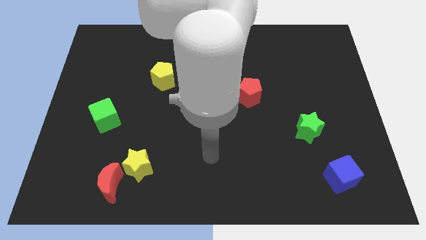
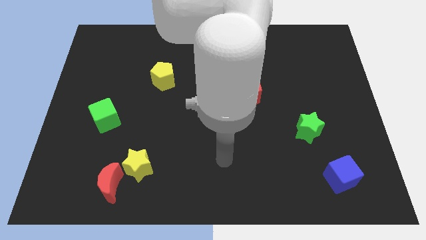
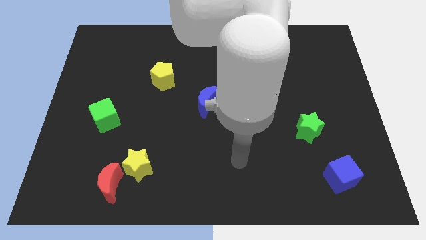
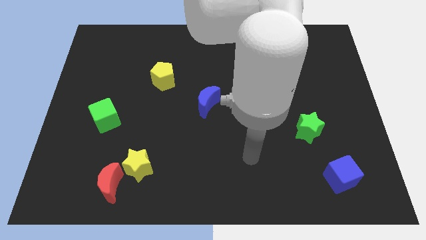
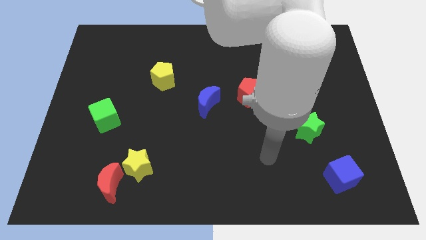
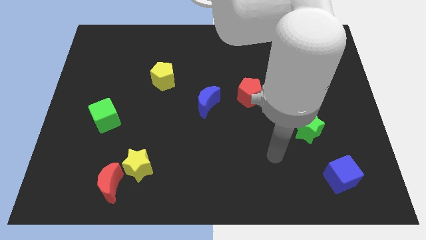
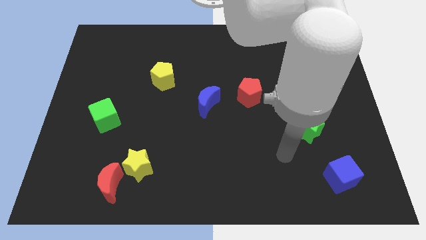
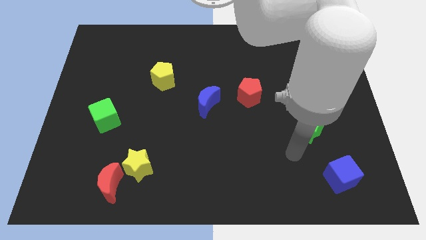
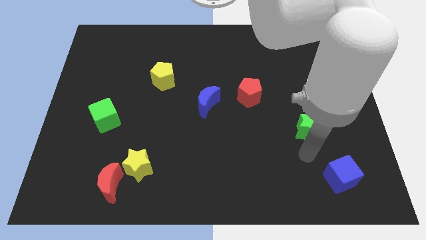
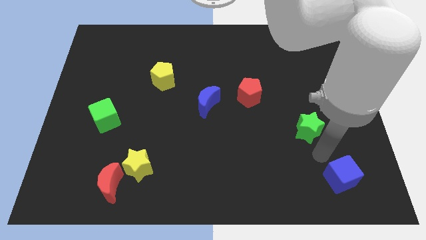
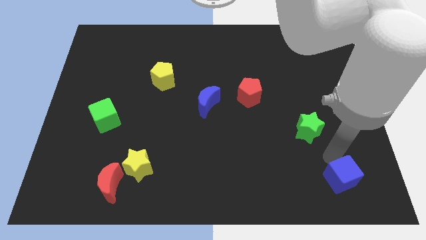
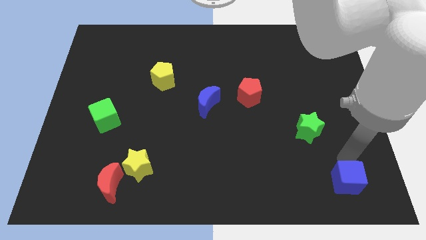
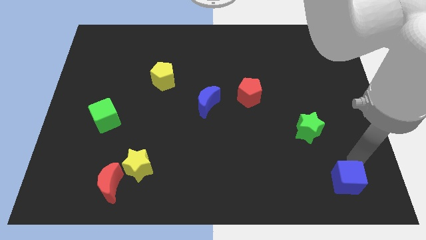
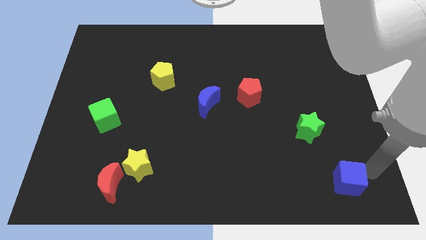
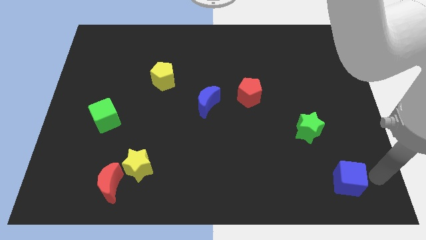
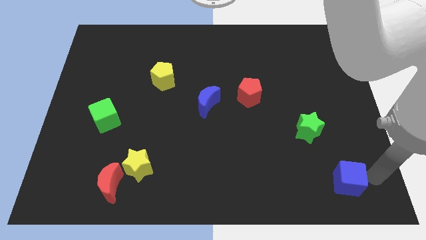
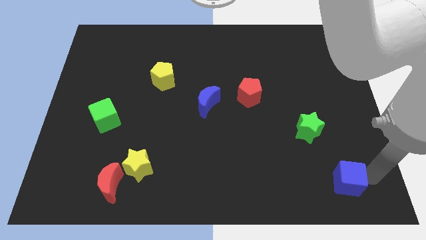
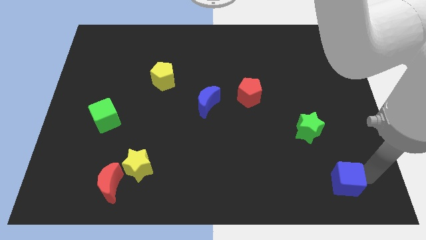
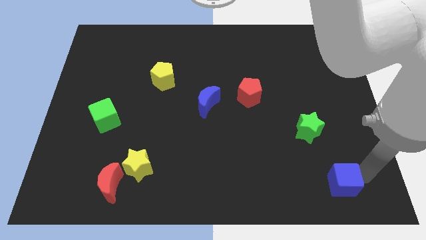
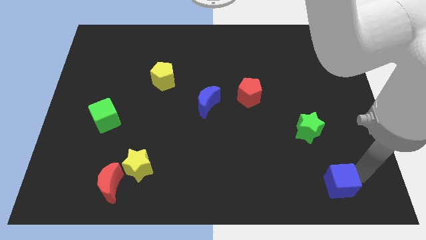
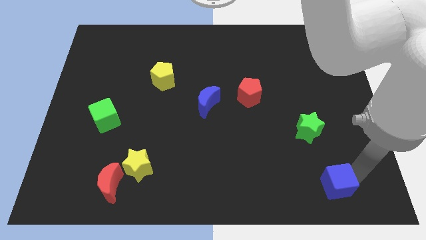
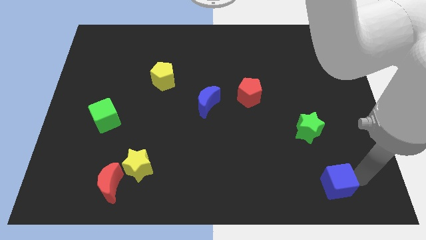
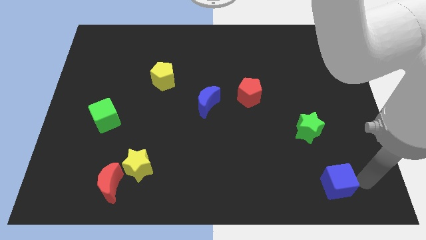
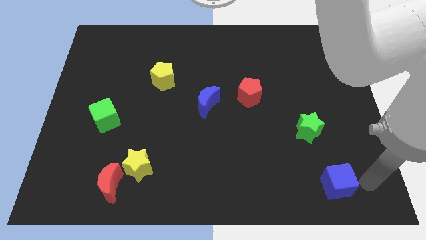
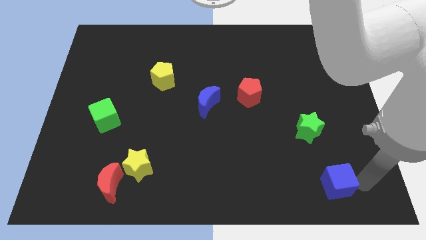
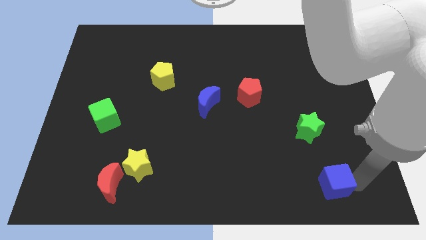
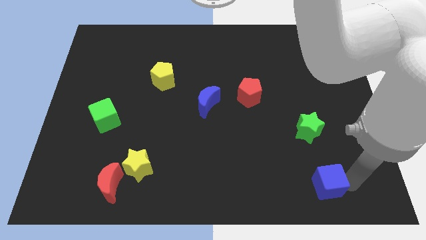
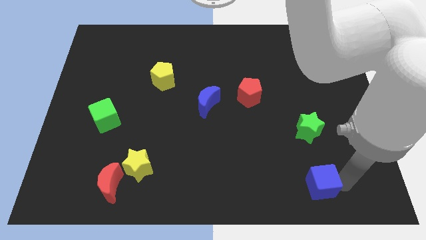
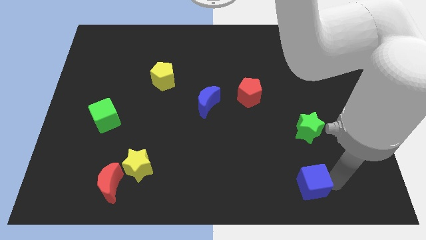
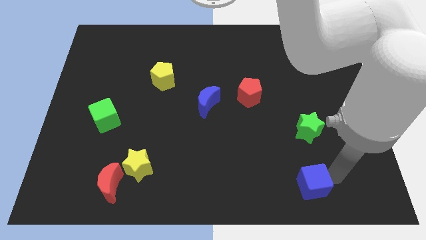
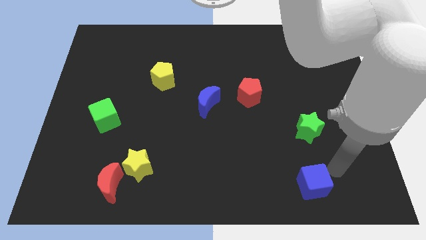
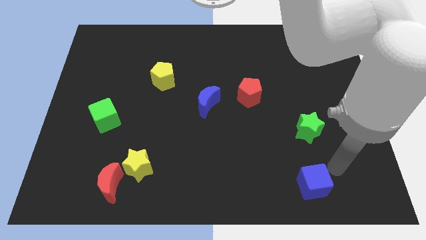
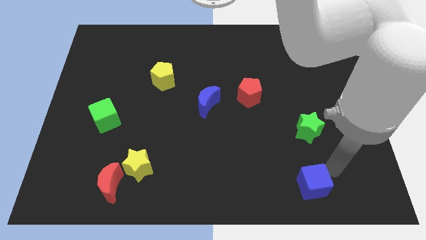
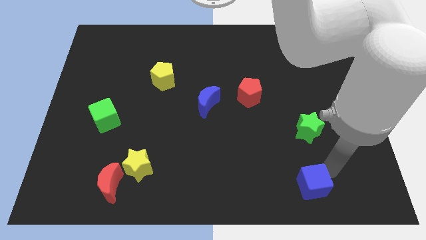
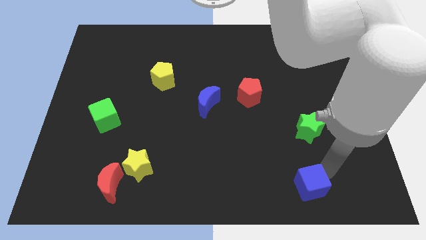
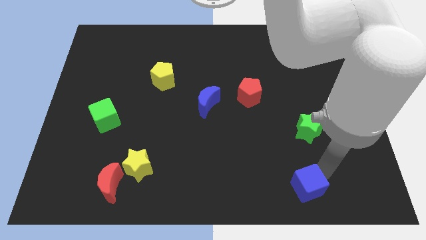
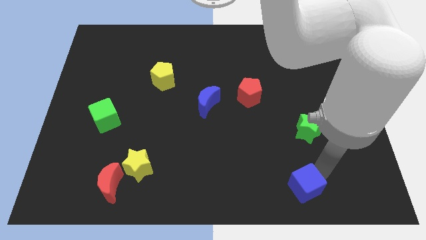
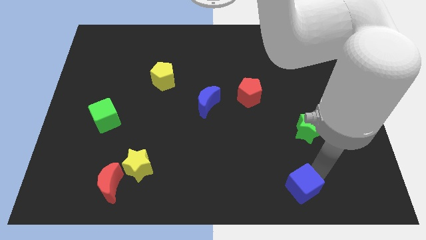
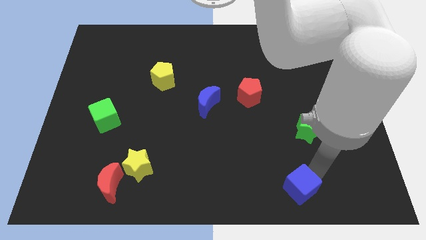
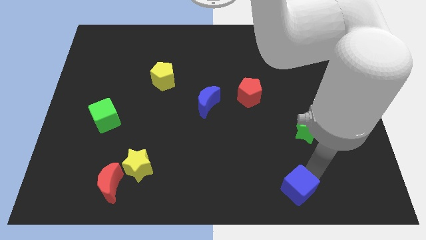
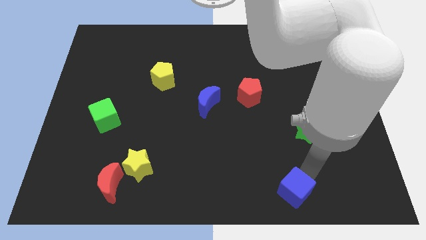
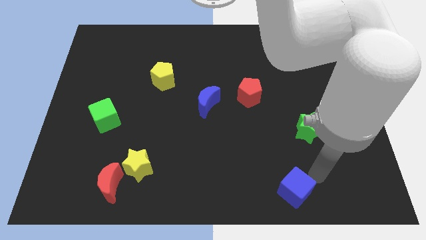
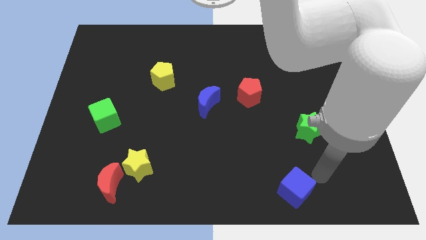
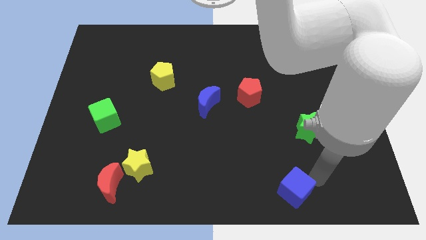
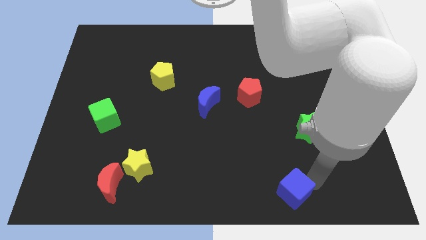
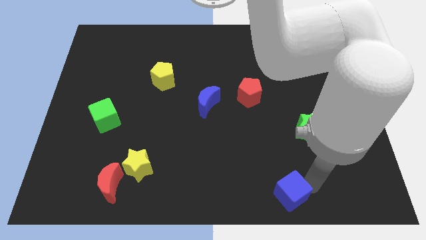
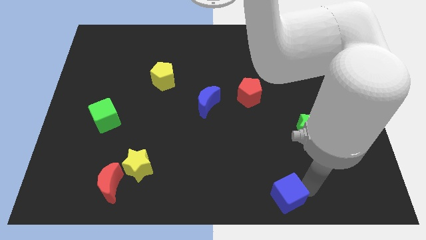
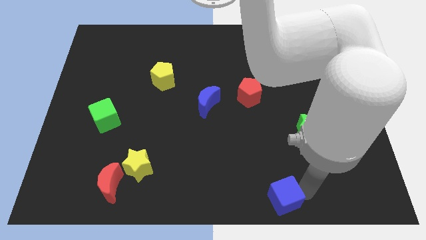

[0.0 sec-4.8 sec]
push the blue cube to the bottom

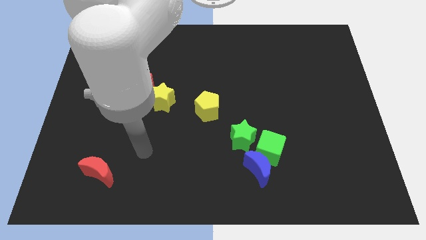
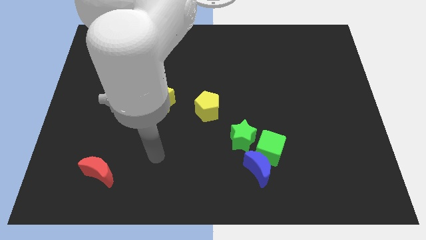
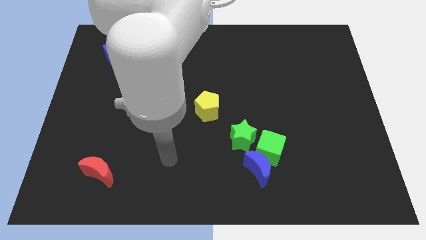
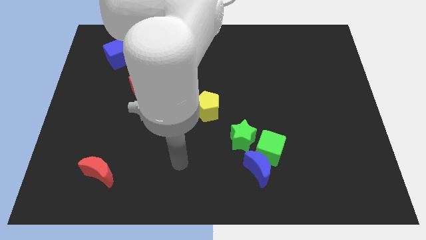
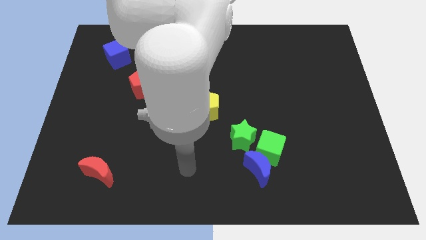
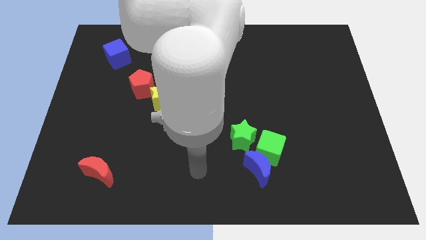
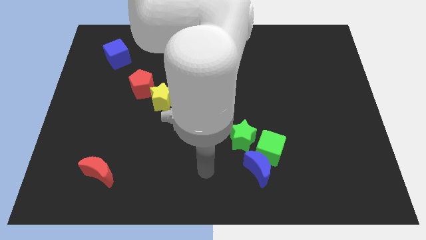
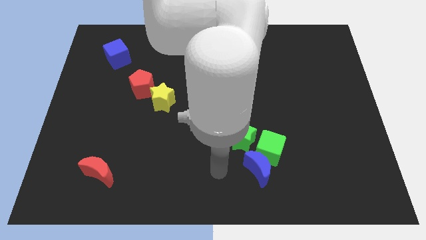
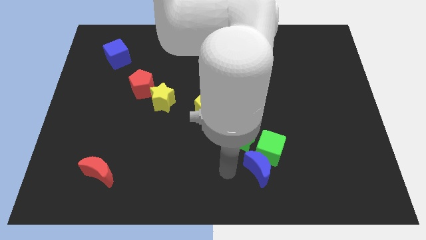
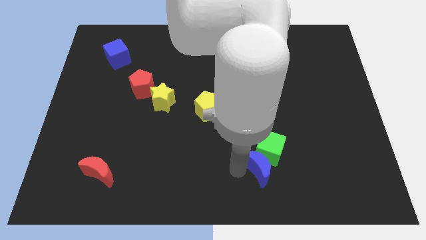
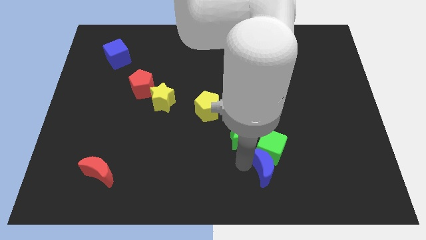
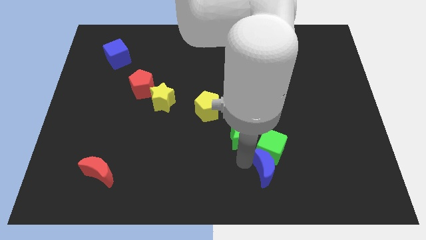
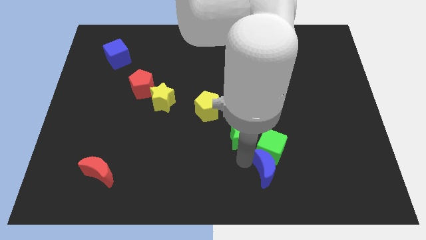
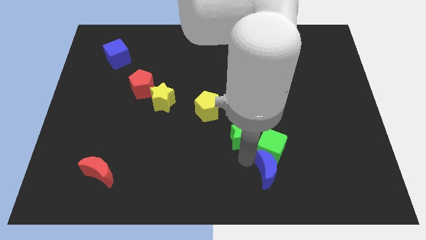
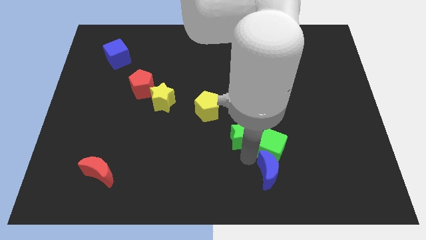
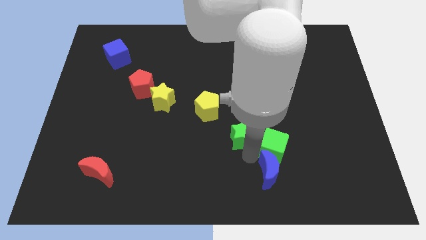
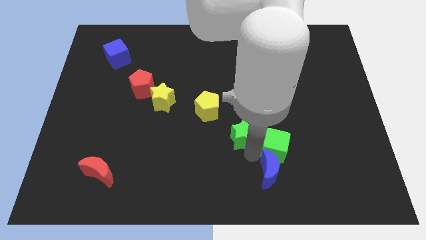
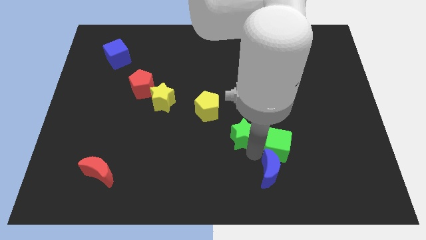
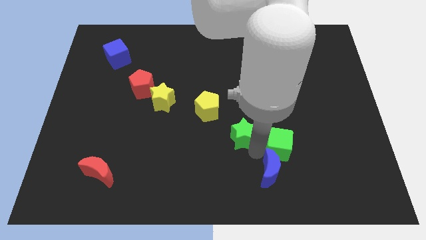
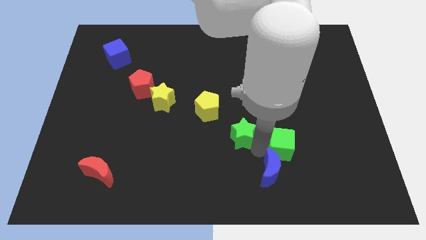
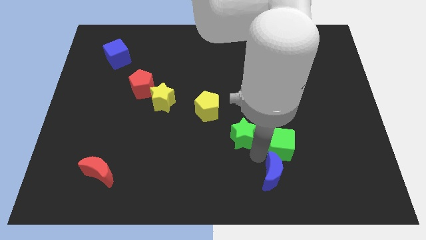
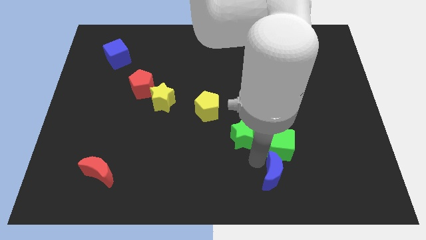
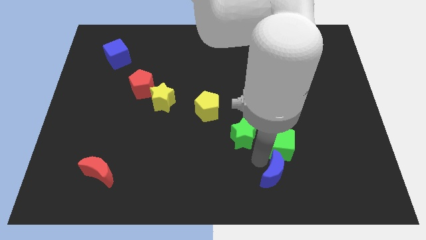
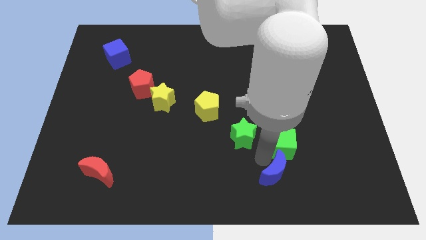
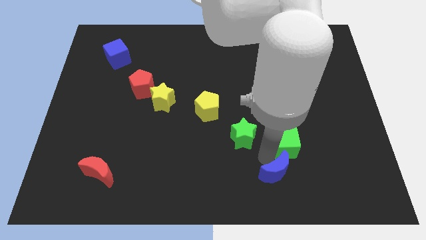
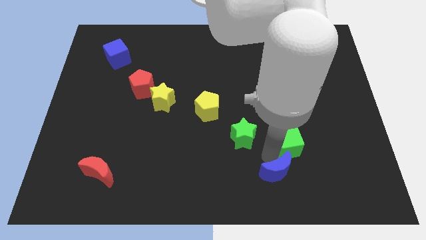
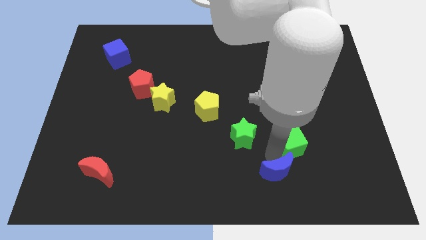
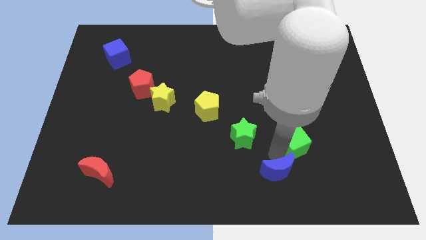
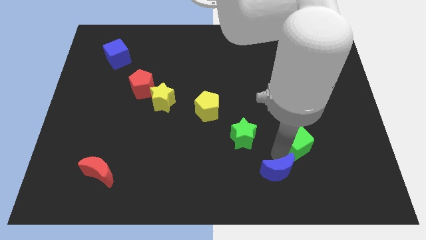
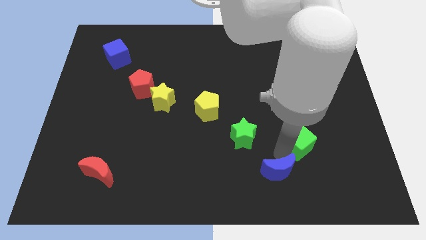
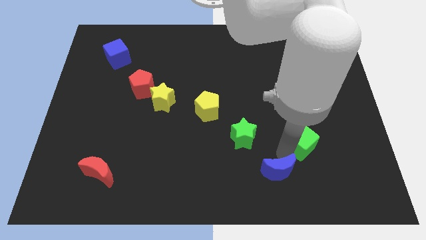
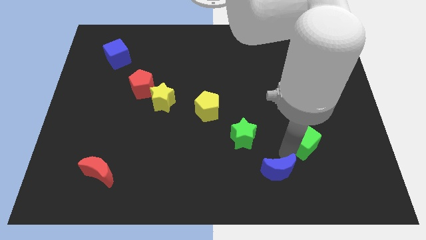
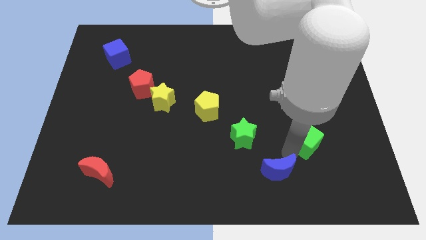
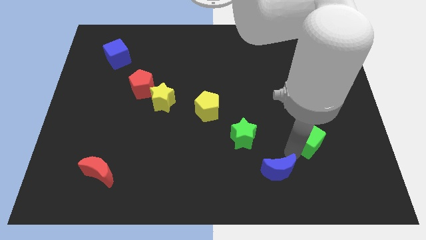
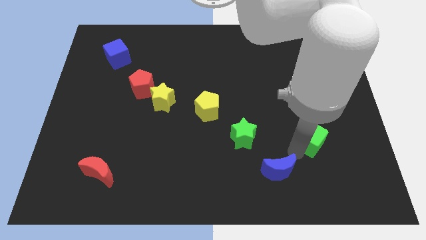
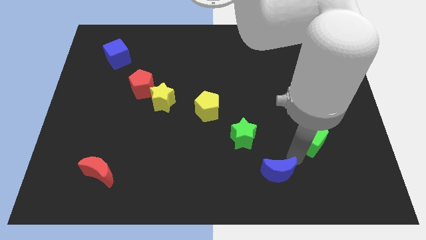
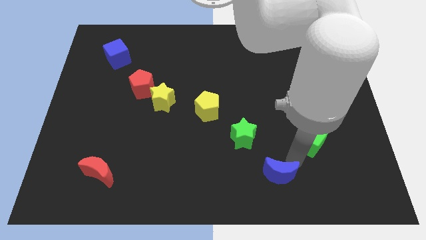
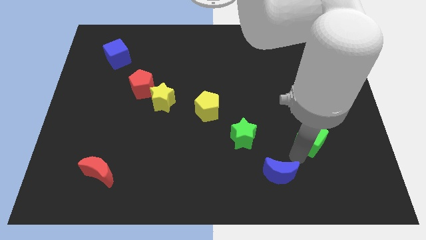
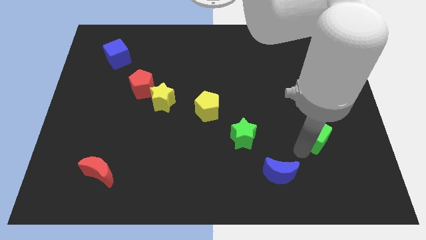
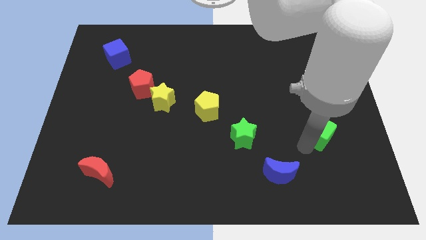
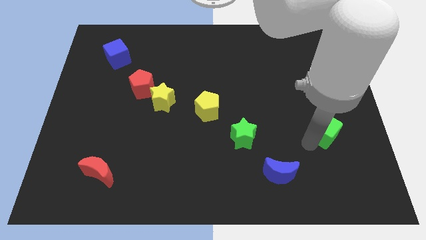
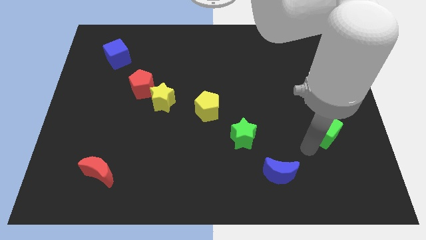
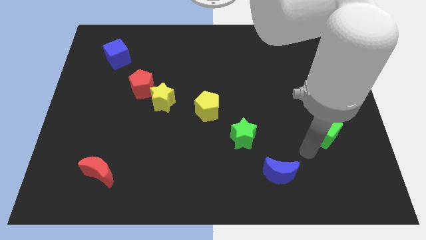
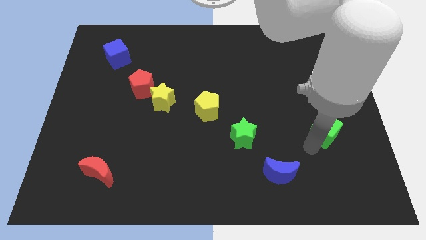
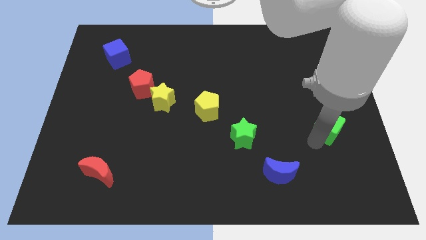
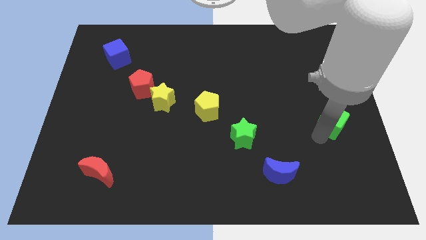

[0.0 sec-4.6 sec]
move the green cube to the right side
